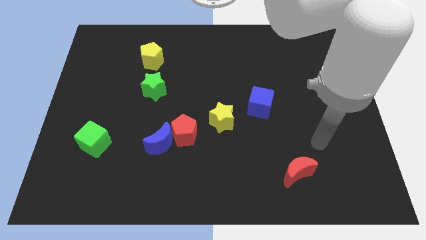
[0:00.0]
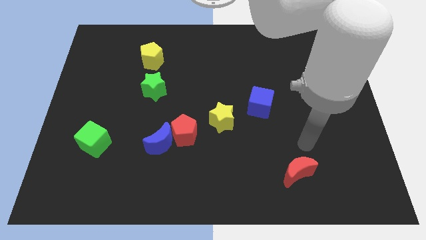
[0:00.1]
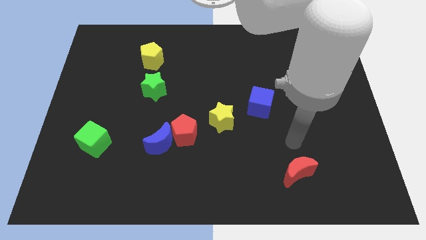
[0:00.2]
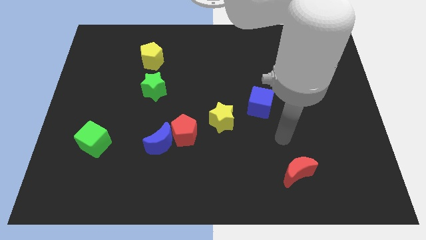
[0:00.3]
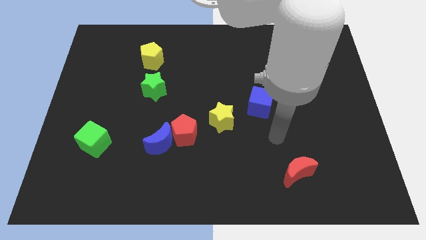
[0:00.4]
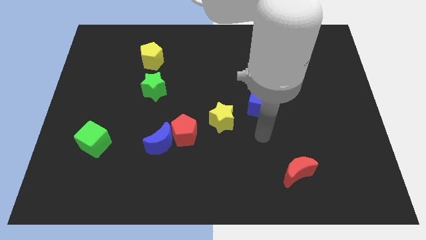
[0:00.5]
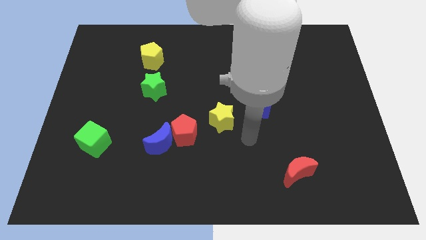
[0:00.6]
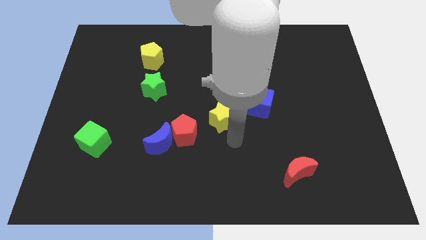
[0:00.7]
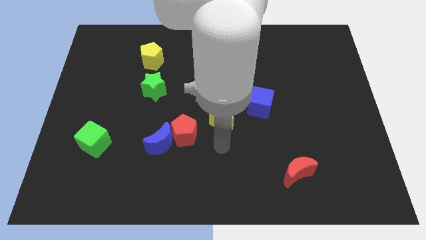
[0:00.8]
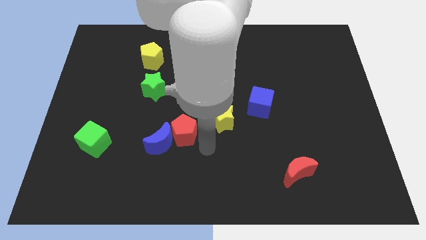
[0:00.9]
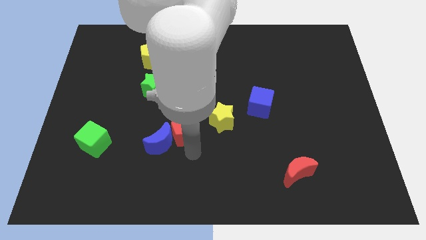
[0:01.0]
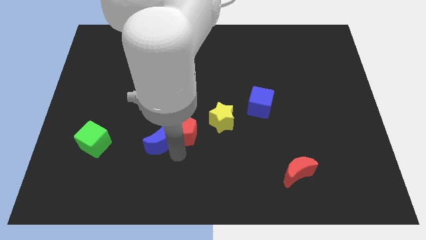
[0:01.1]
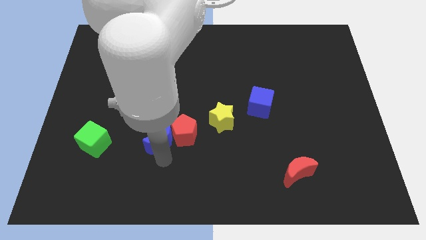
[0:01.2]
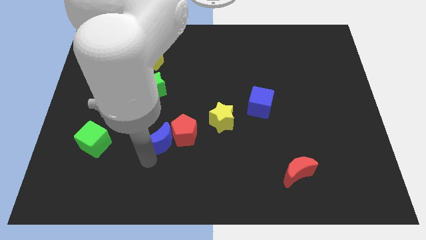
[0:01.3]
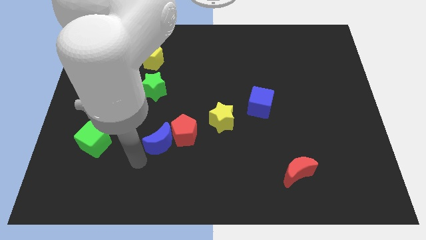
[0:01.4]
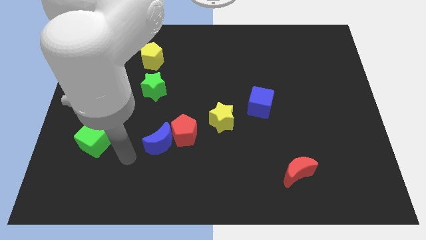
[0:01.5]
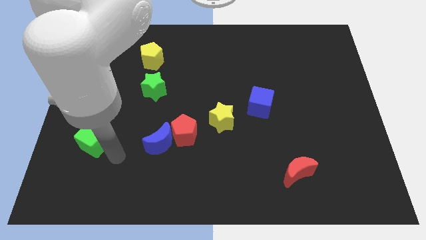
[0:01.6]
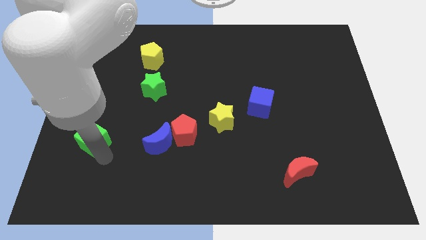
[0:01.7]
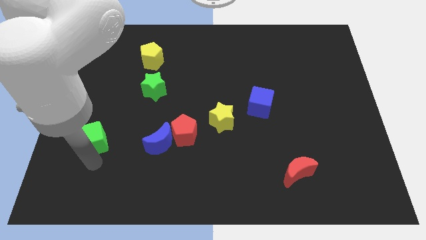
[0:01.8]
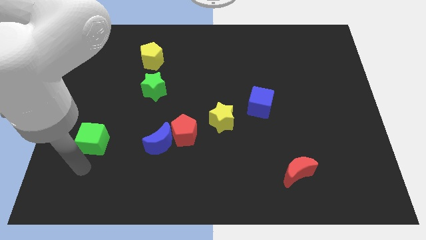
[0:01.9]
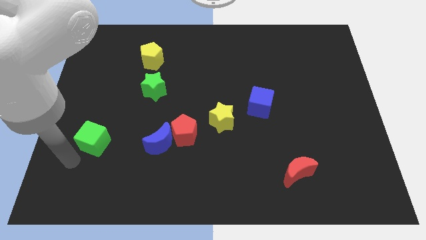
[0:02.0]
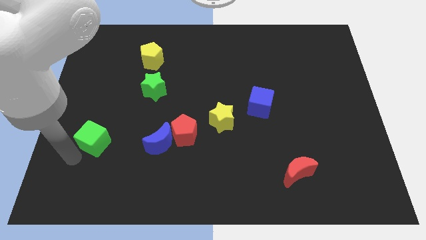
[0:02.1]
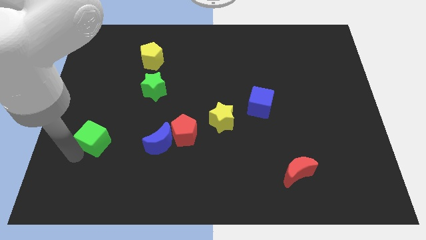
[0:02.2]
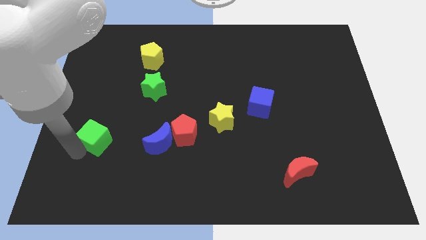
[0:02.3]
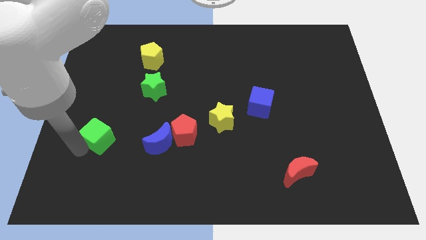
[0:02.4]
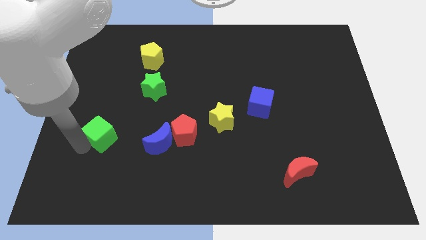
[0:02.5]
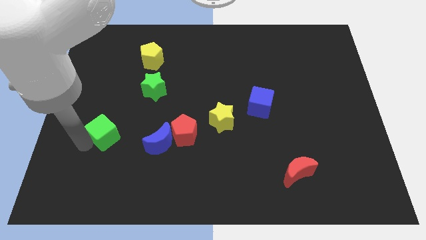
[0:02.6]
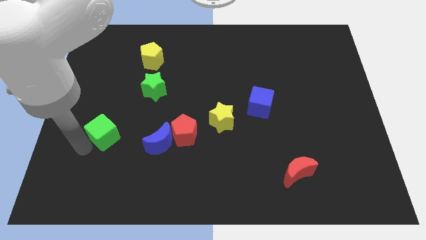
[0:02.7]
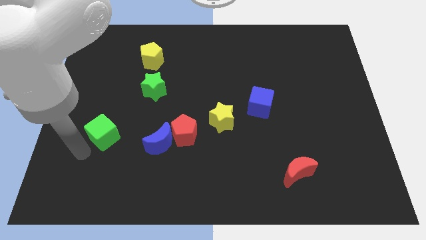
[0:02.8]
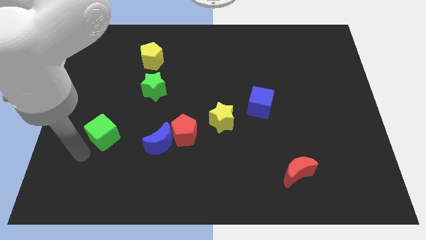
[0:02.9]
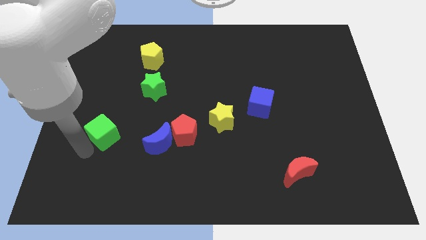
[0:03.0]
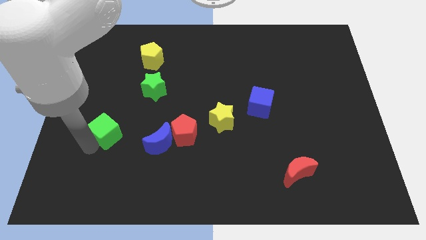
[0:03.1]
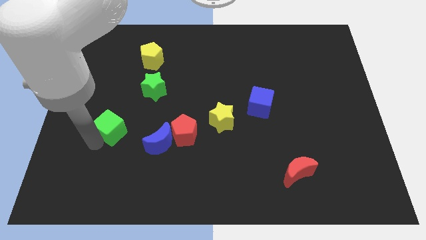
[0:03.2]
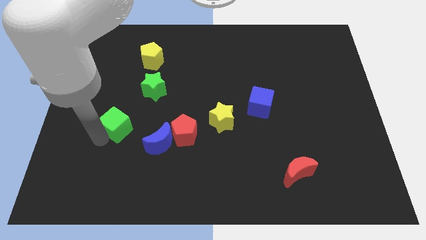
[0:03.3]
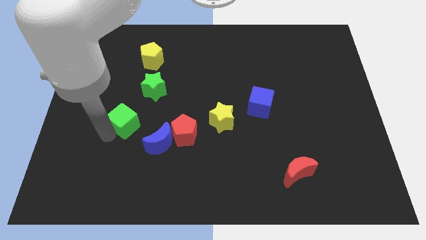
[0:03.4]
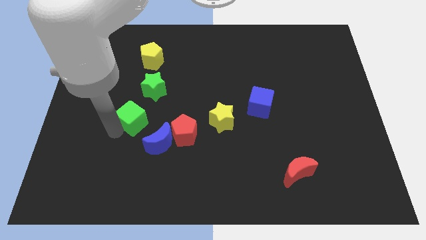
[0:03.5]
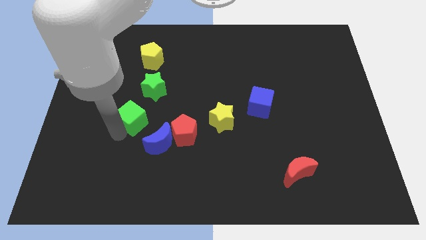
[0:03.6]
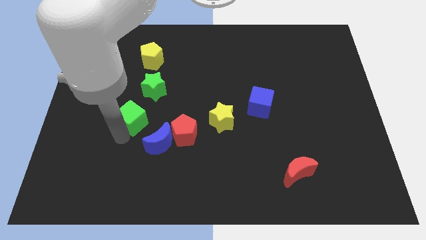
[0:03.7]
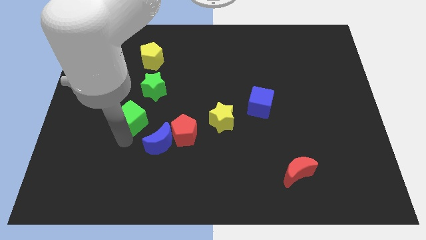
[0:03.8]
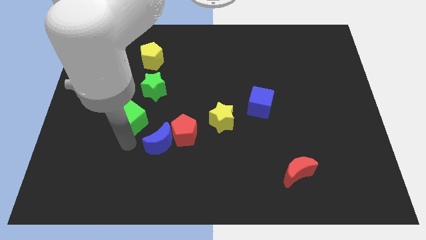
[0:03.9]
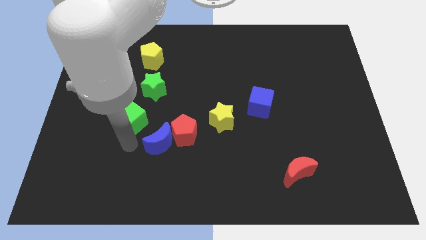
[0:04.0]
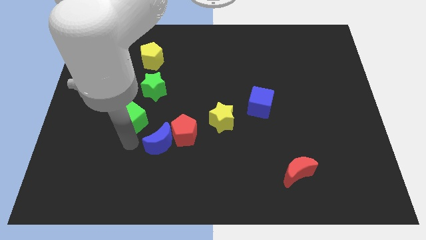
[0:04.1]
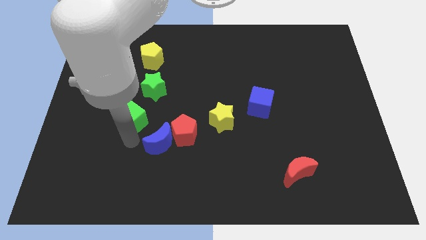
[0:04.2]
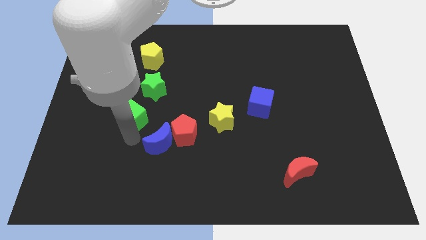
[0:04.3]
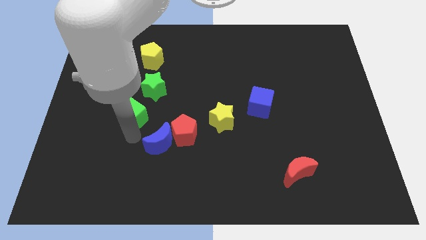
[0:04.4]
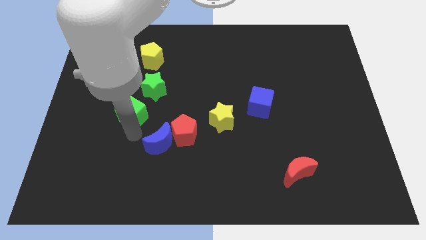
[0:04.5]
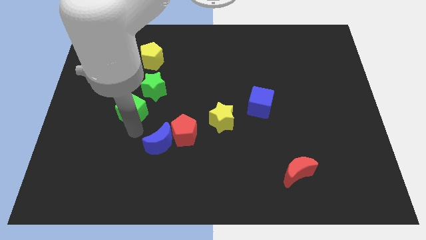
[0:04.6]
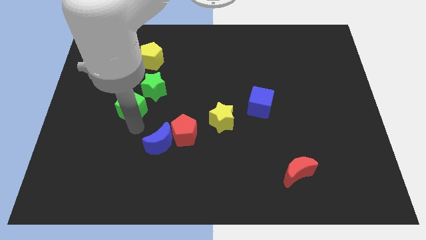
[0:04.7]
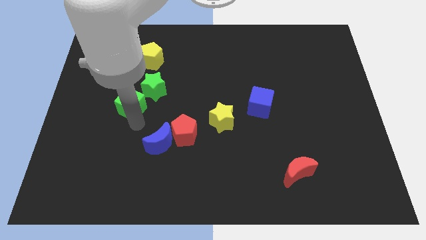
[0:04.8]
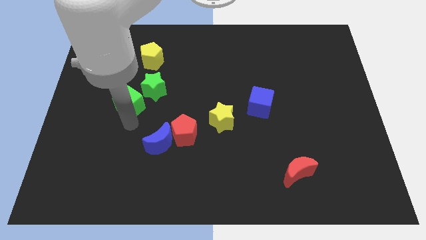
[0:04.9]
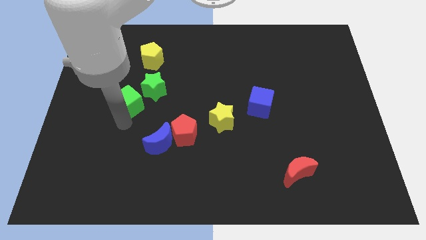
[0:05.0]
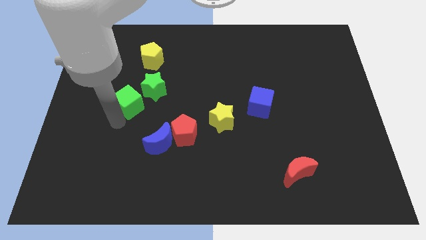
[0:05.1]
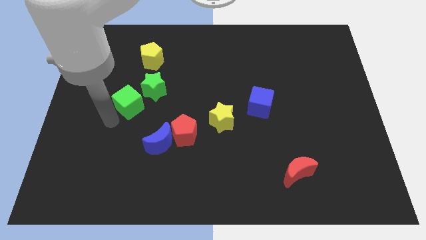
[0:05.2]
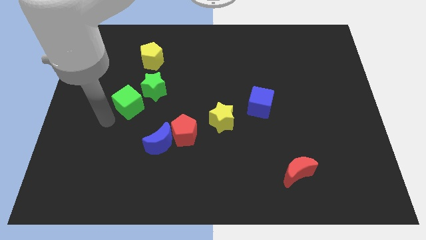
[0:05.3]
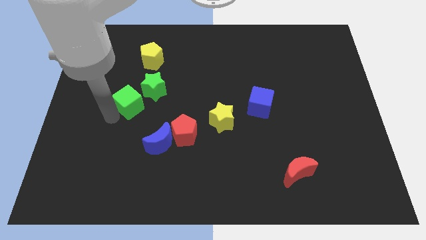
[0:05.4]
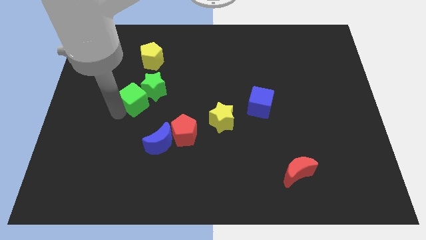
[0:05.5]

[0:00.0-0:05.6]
move the green cube to the green star
